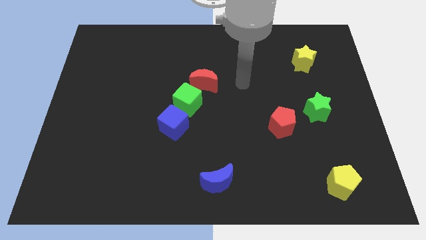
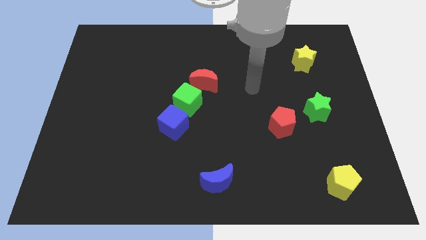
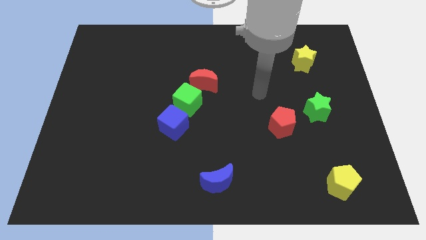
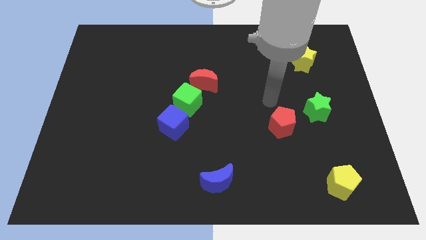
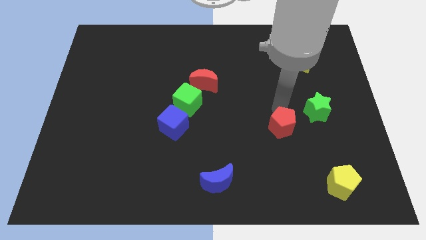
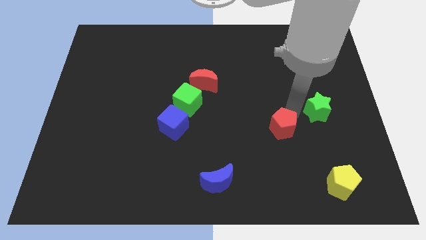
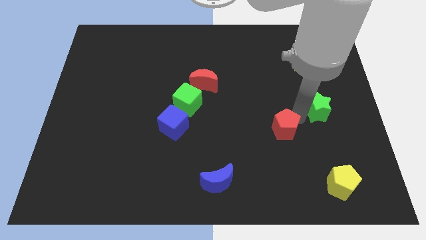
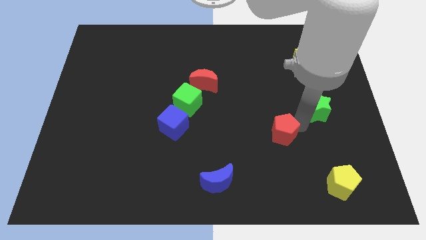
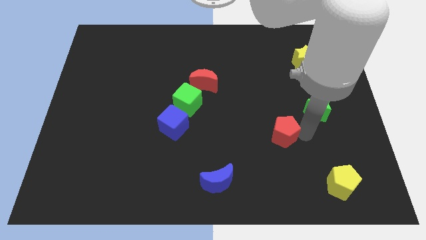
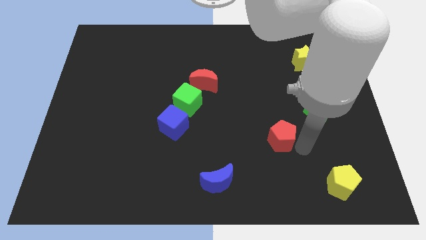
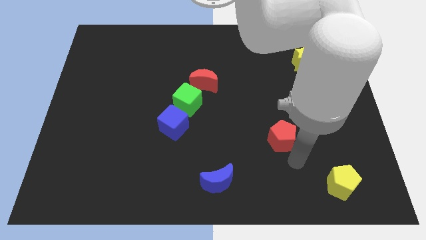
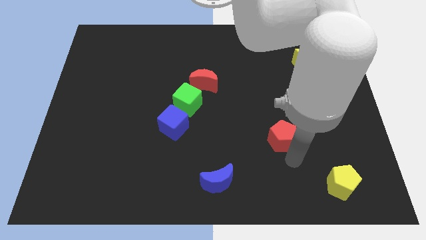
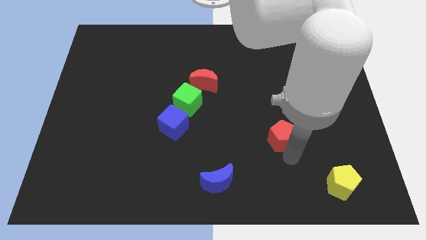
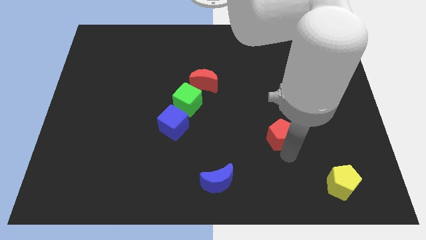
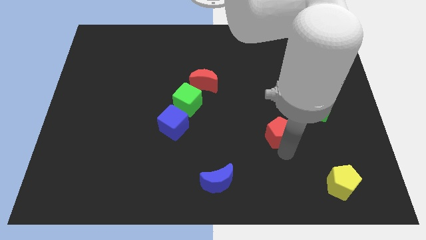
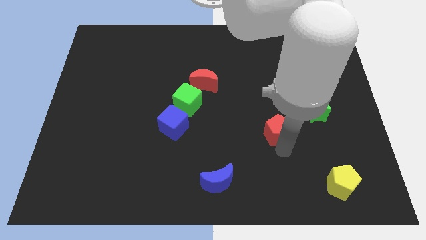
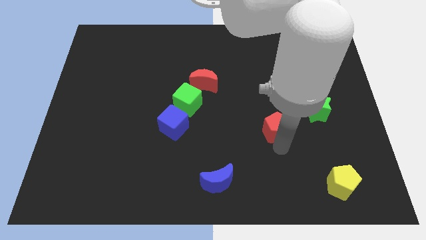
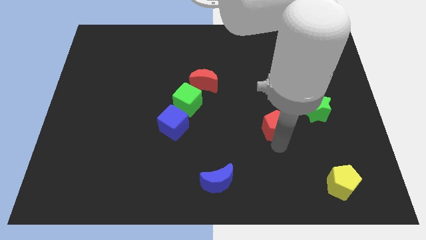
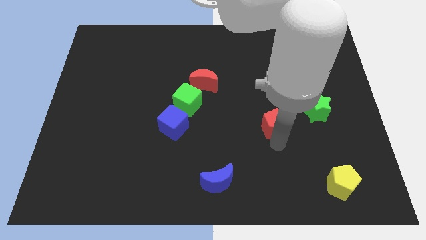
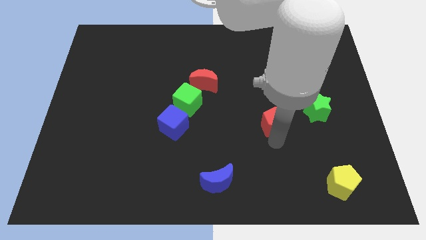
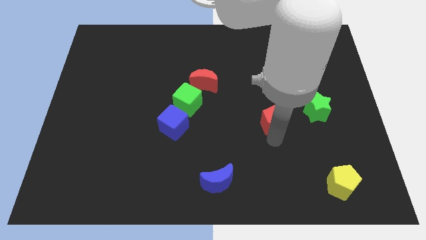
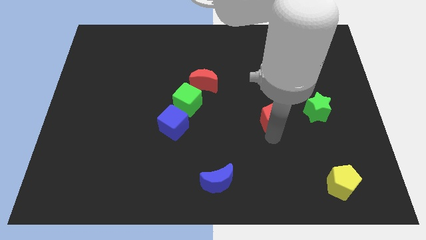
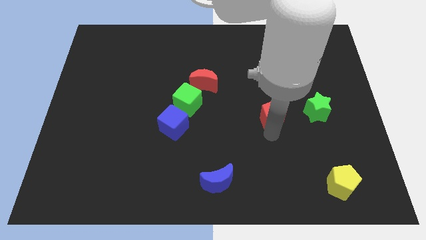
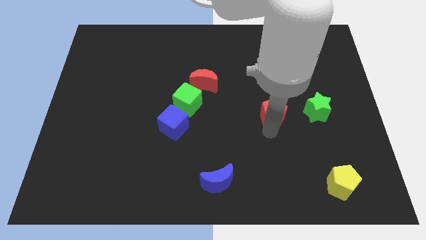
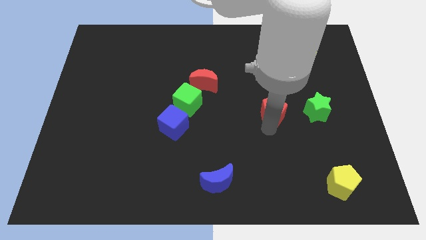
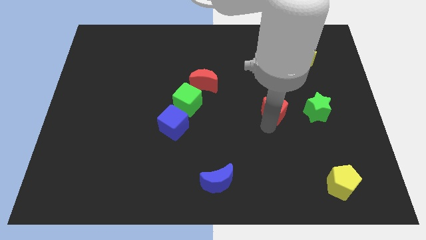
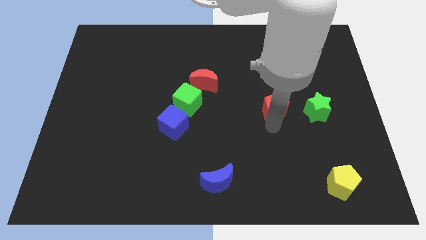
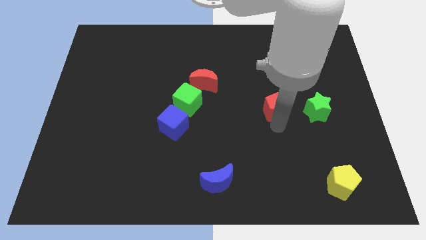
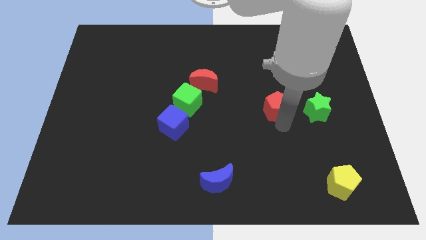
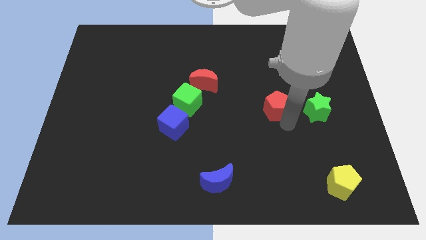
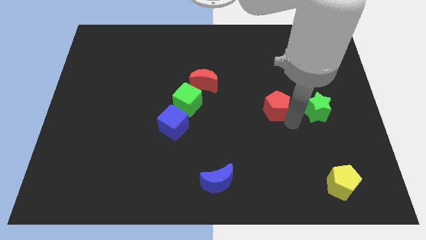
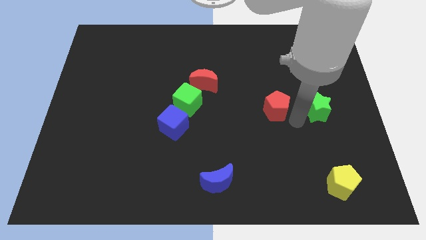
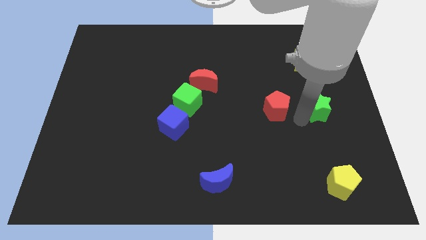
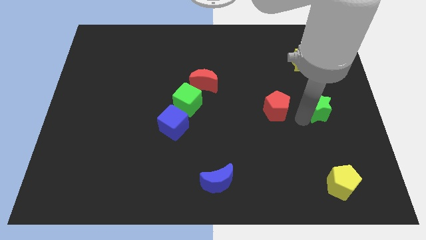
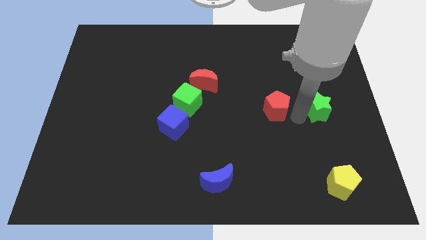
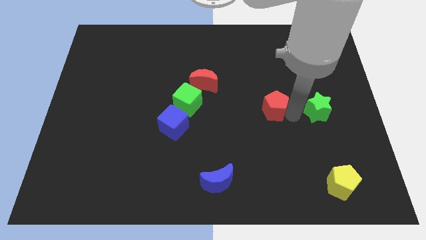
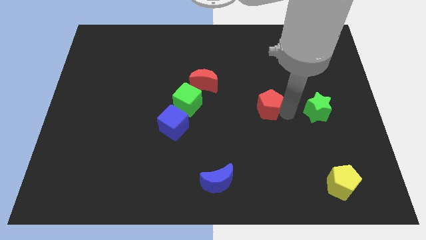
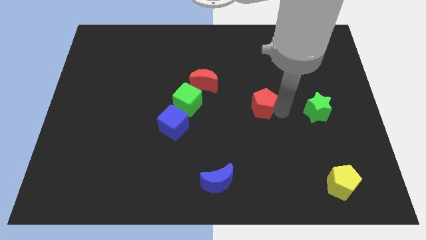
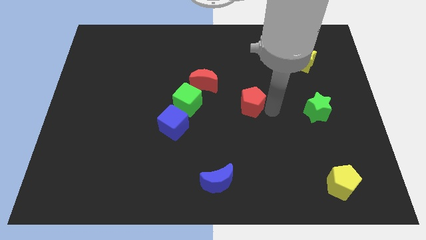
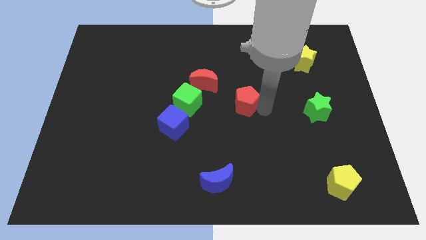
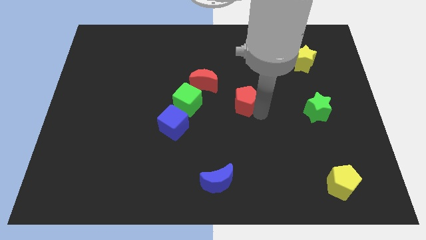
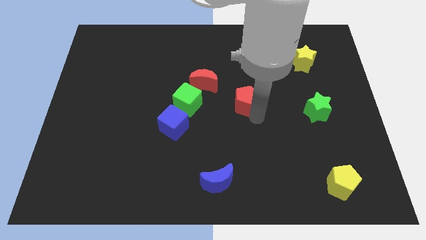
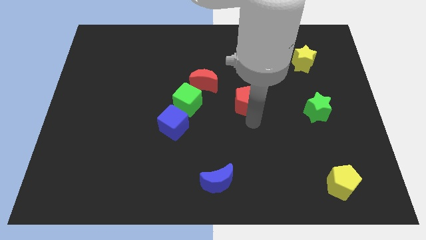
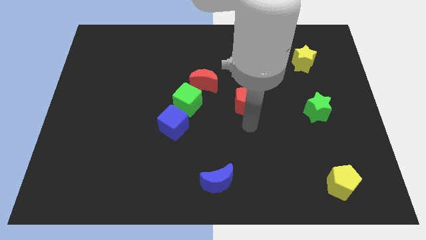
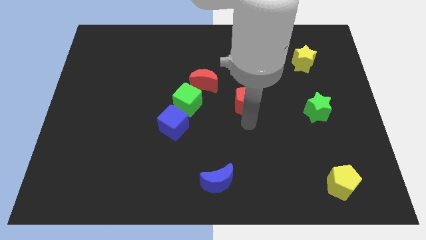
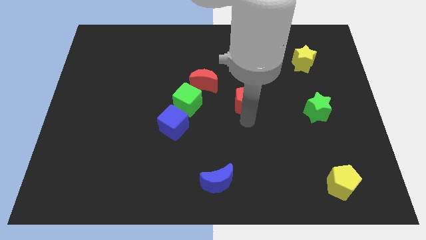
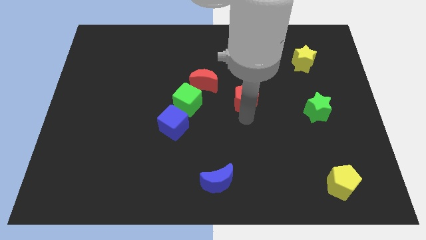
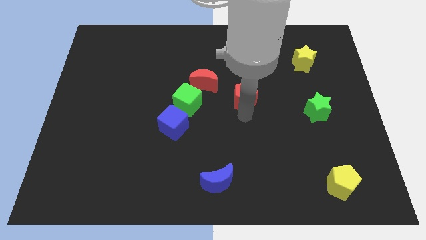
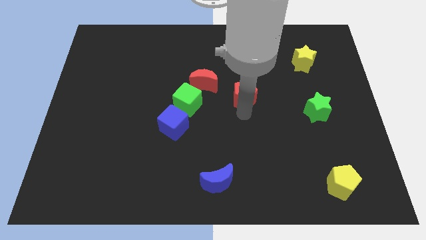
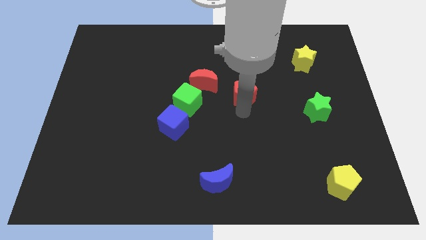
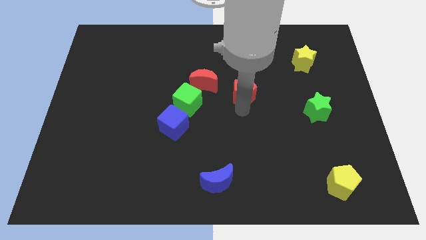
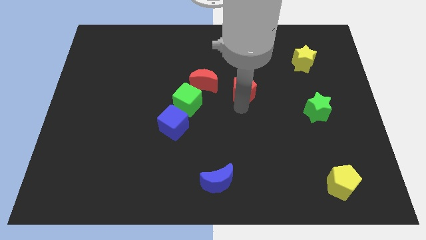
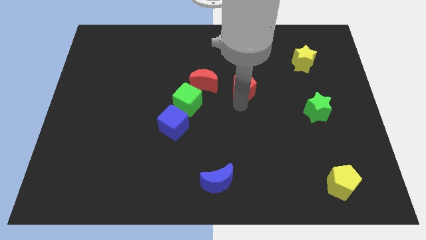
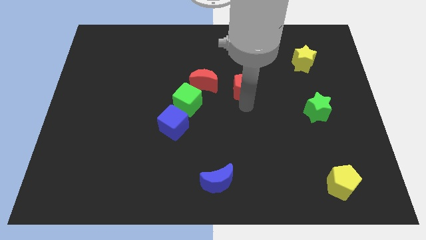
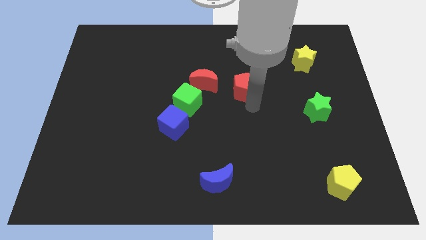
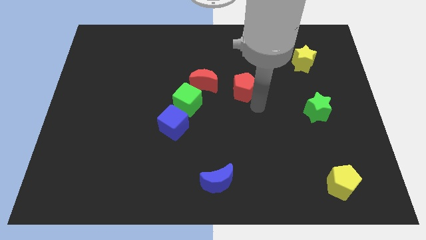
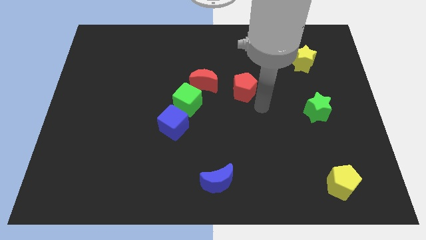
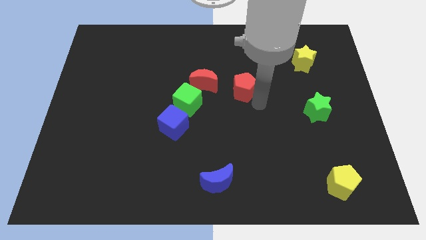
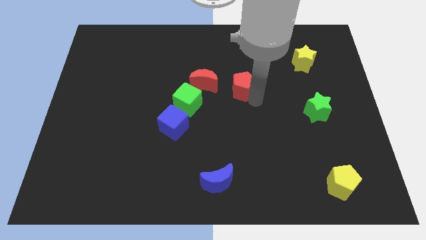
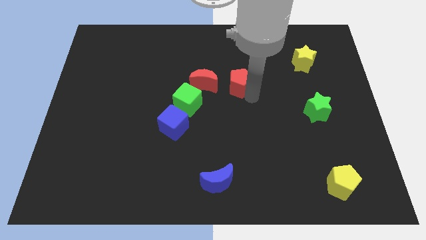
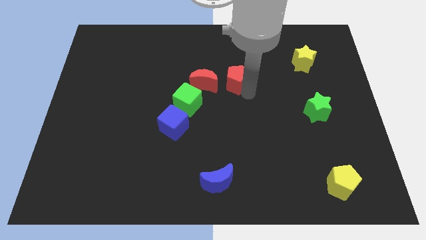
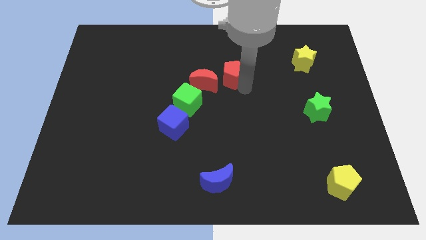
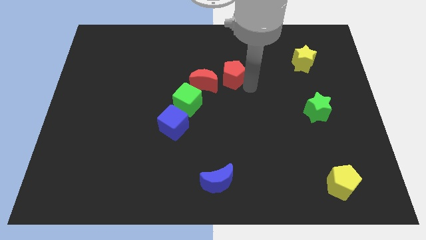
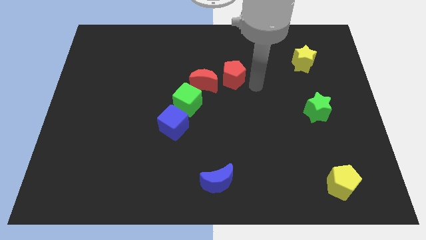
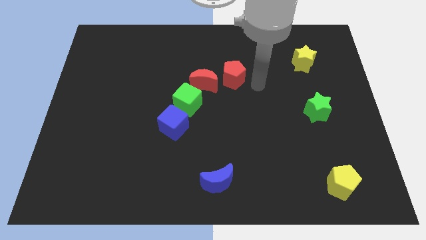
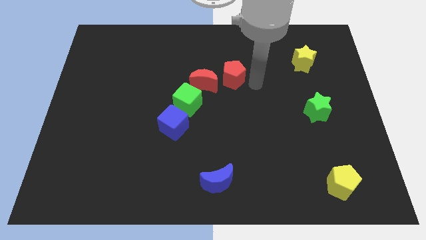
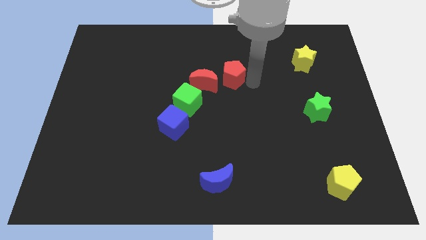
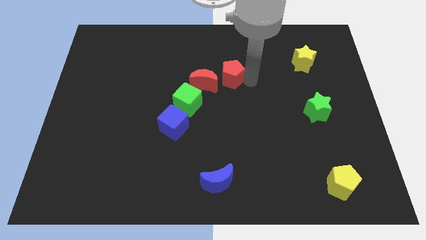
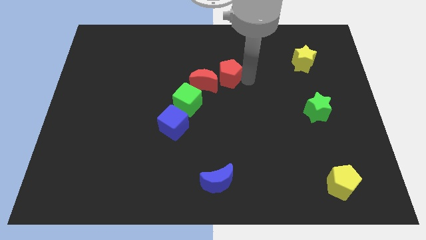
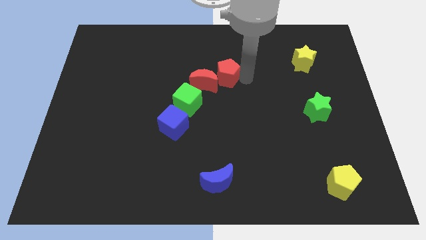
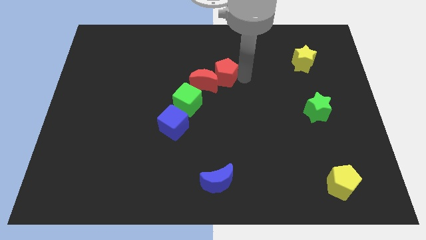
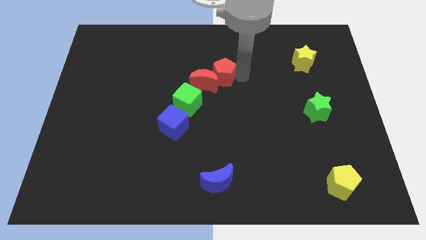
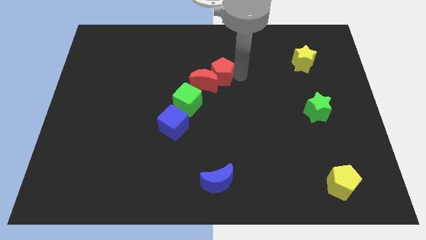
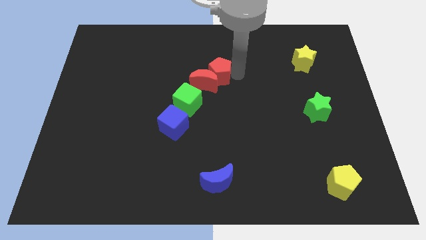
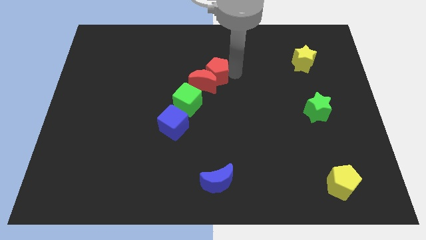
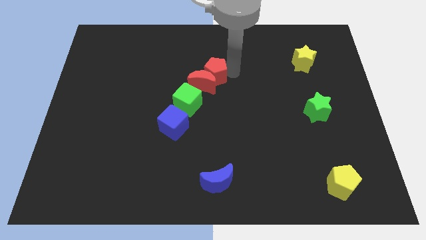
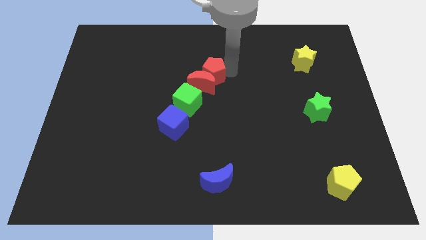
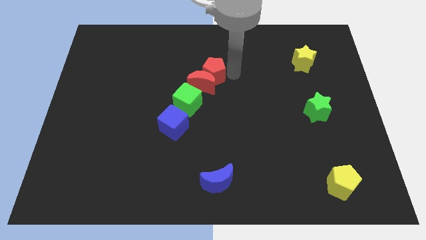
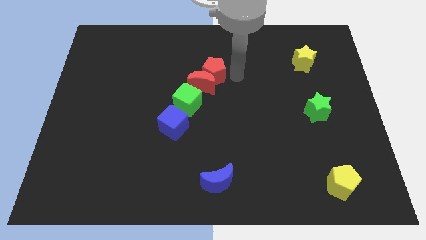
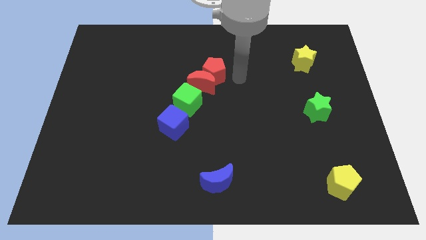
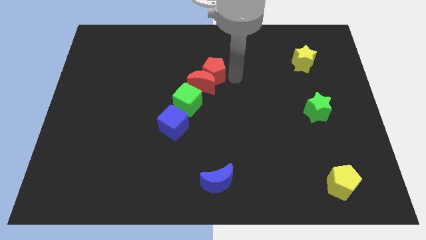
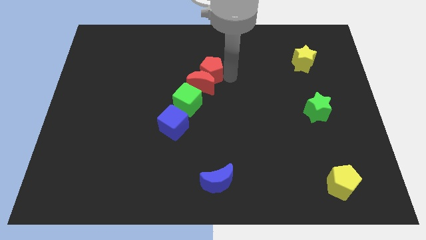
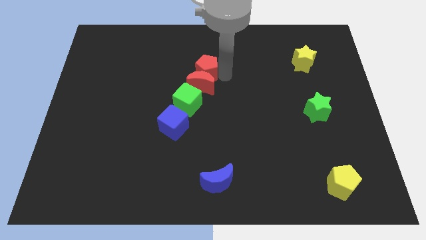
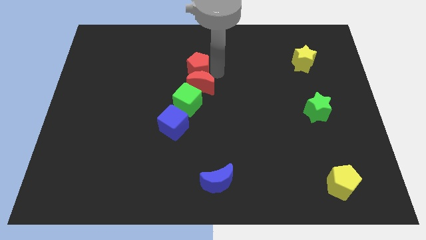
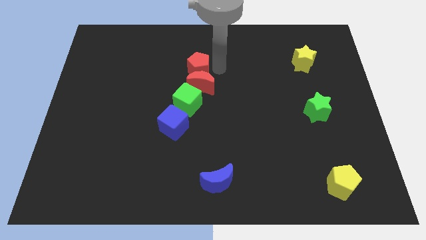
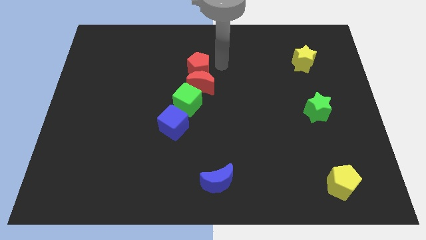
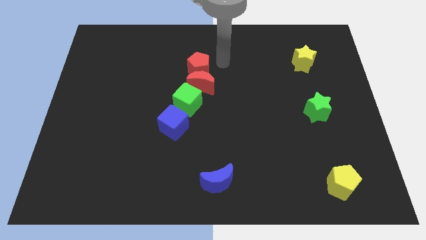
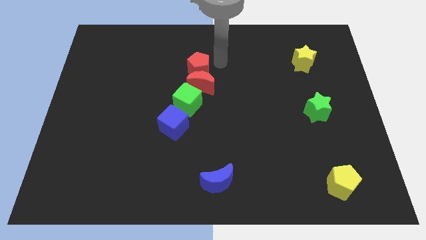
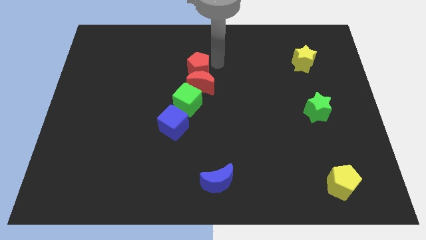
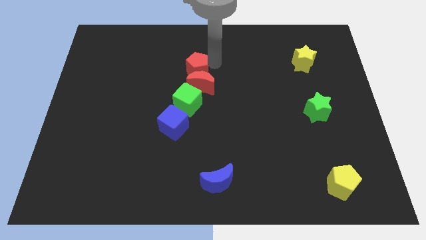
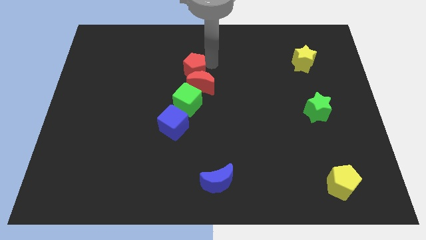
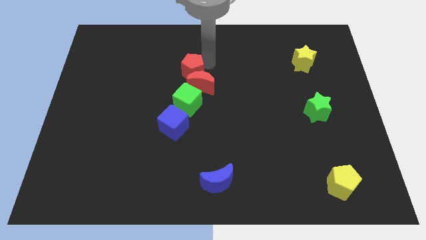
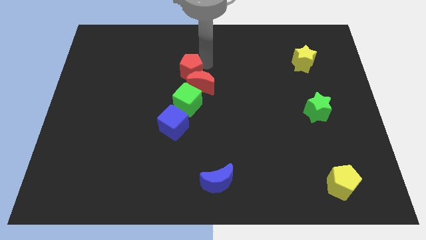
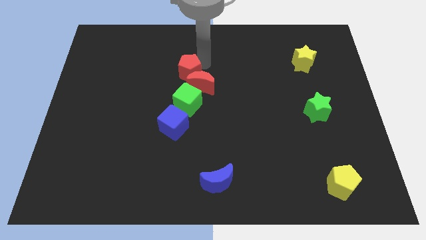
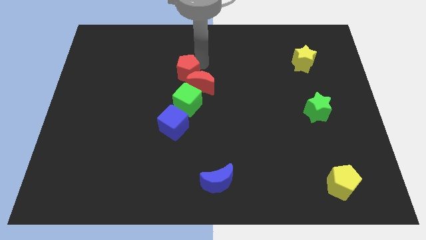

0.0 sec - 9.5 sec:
slide the red pentagon just left of the red moon
